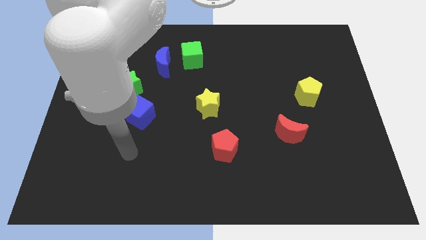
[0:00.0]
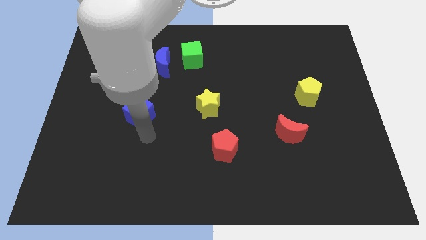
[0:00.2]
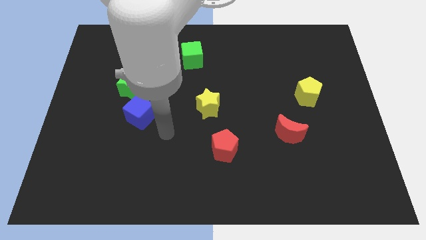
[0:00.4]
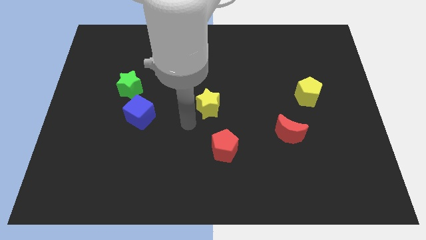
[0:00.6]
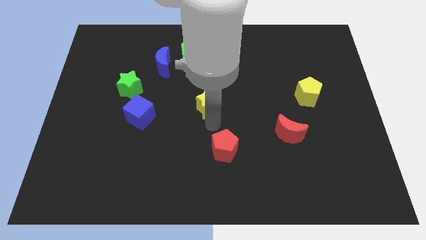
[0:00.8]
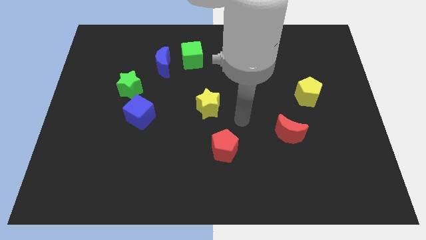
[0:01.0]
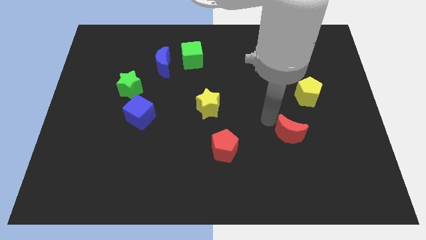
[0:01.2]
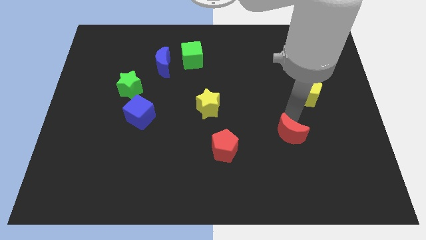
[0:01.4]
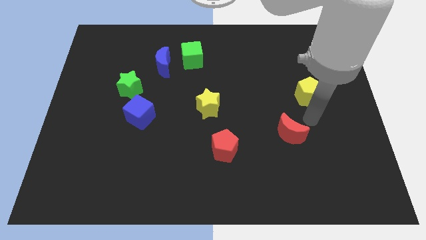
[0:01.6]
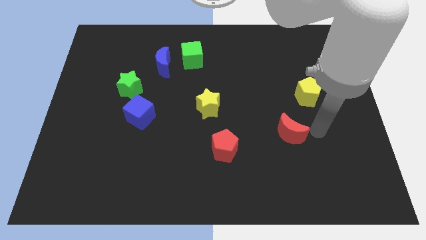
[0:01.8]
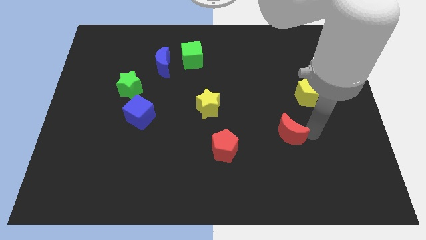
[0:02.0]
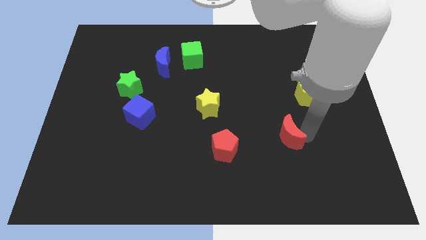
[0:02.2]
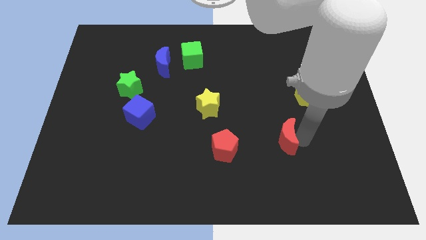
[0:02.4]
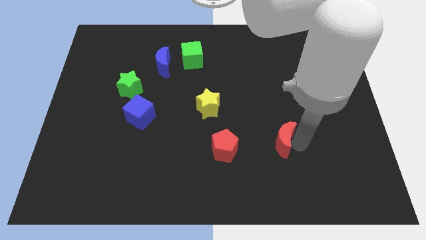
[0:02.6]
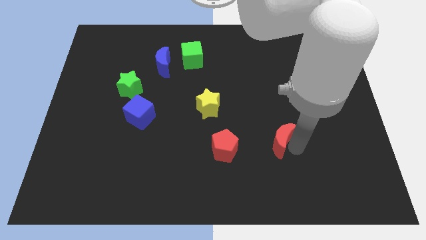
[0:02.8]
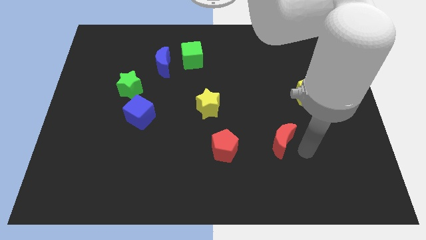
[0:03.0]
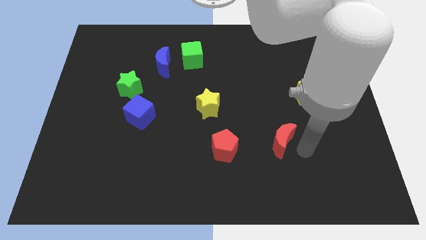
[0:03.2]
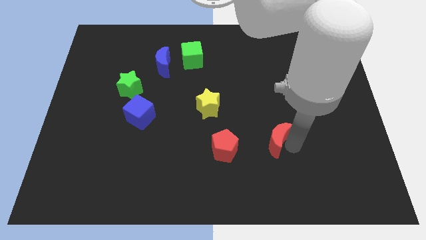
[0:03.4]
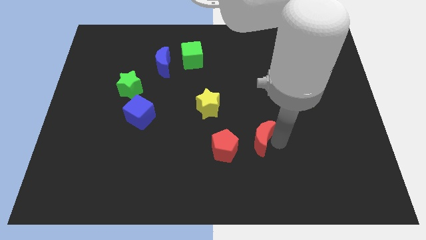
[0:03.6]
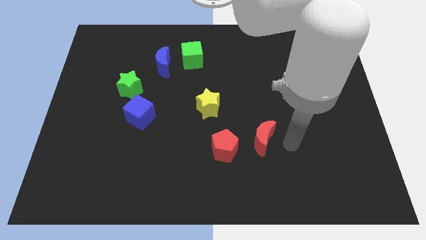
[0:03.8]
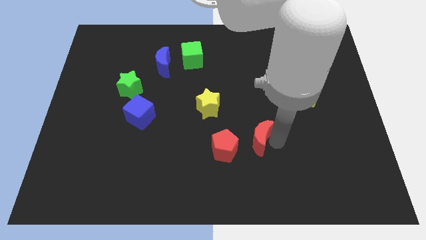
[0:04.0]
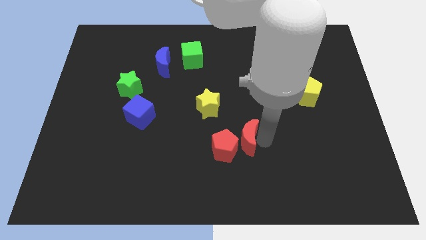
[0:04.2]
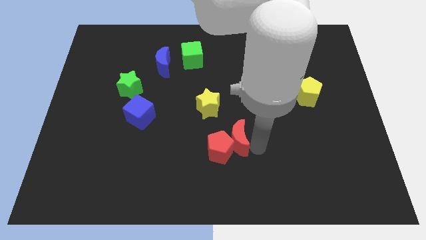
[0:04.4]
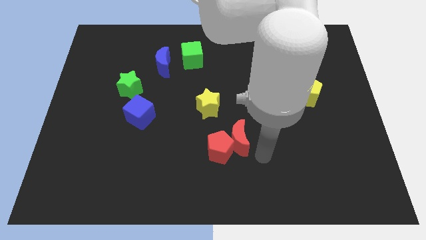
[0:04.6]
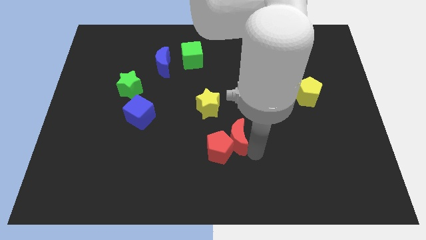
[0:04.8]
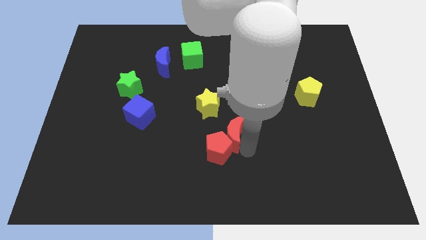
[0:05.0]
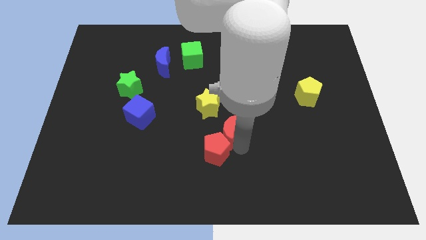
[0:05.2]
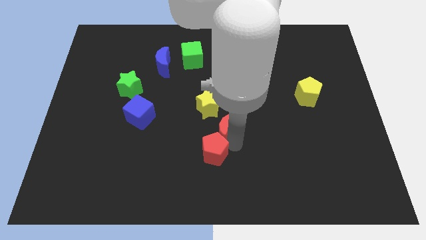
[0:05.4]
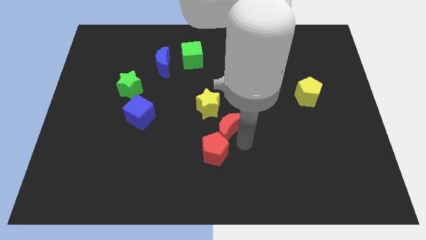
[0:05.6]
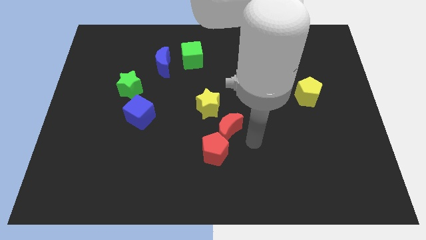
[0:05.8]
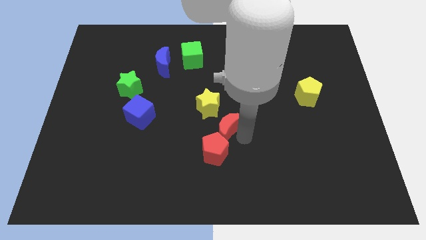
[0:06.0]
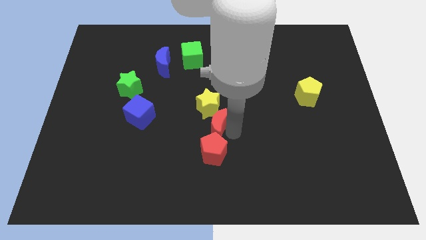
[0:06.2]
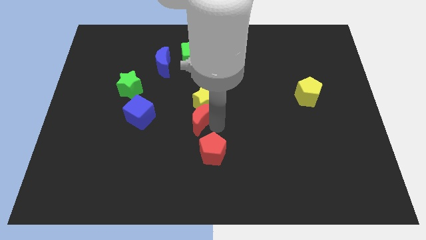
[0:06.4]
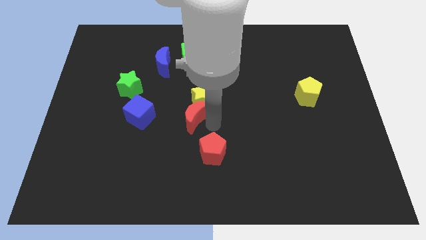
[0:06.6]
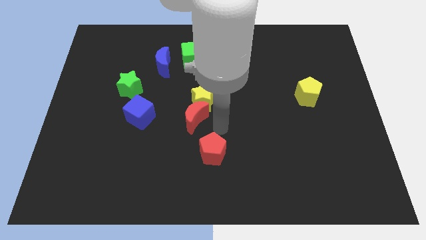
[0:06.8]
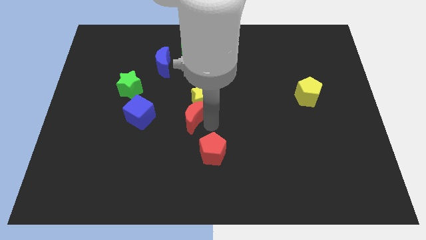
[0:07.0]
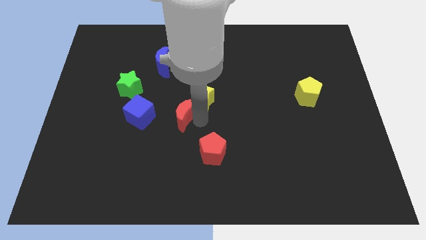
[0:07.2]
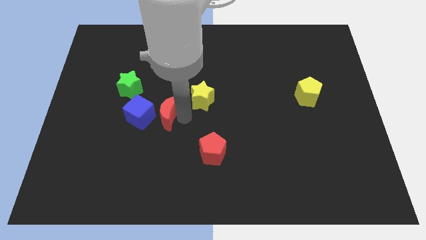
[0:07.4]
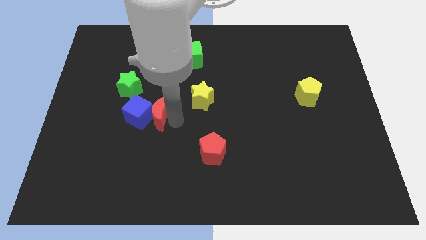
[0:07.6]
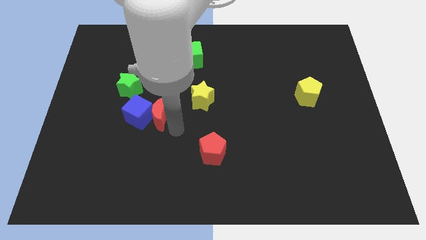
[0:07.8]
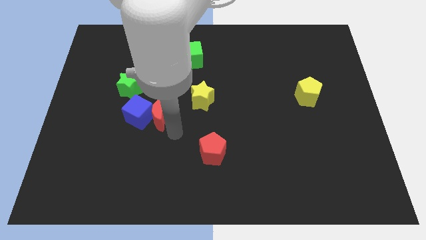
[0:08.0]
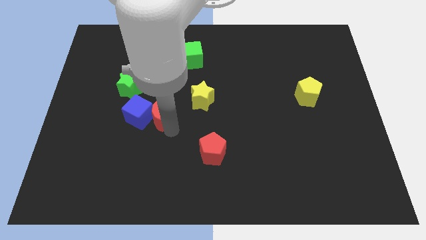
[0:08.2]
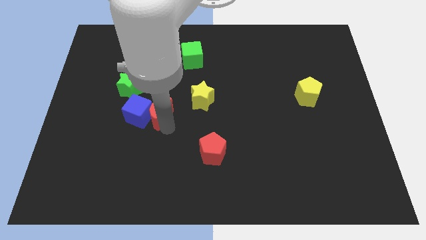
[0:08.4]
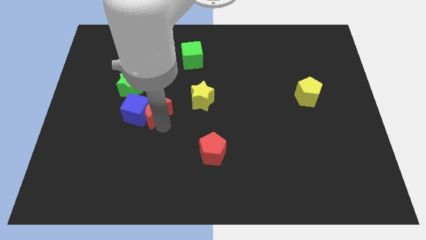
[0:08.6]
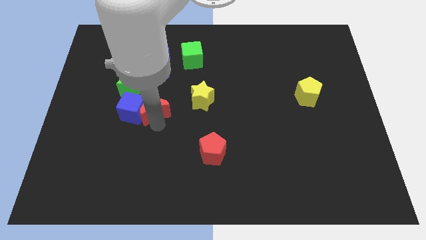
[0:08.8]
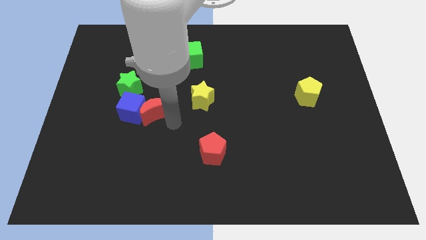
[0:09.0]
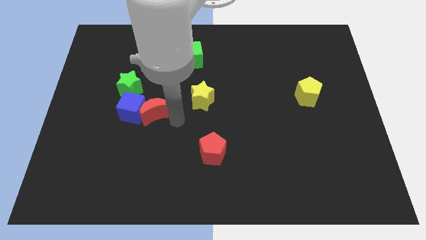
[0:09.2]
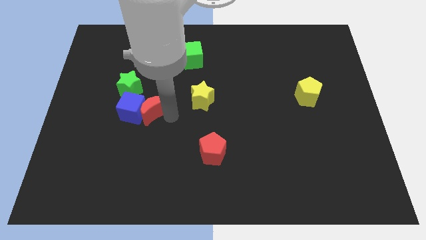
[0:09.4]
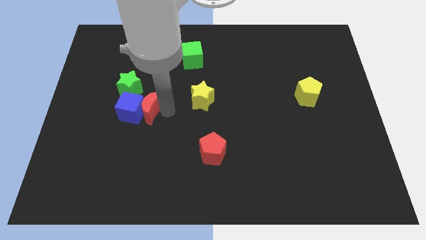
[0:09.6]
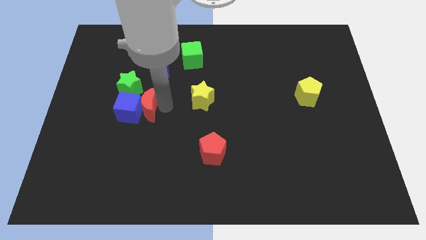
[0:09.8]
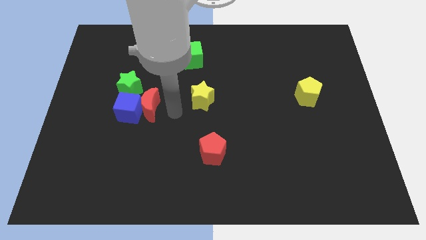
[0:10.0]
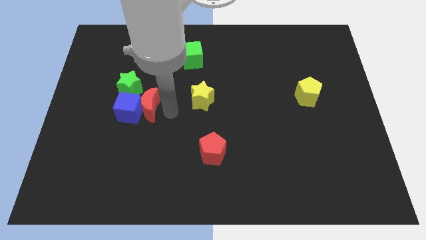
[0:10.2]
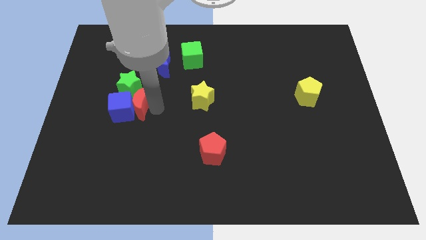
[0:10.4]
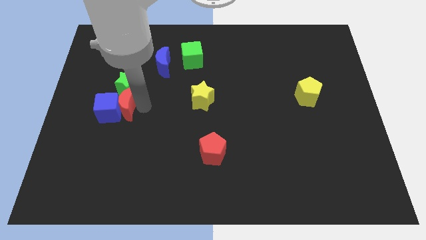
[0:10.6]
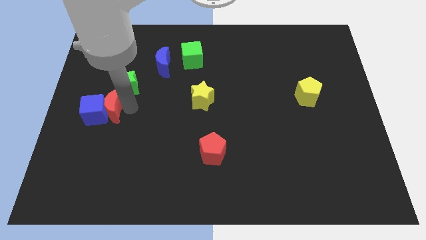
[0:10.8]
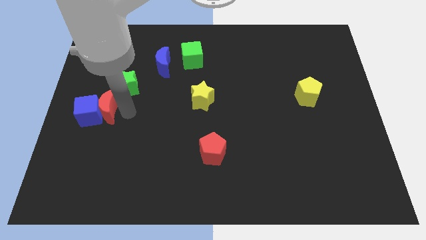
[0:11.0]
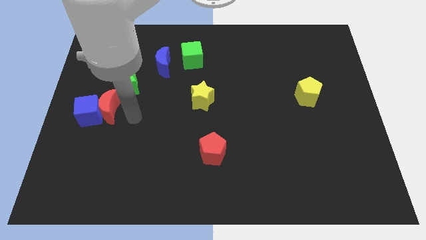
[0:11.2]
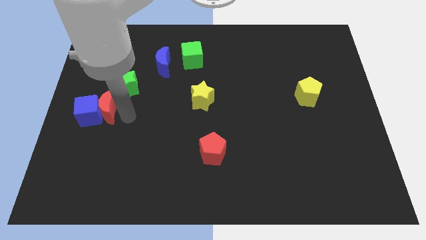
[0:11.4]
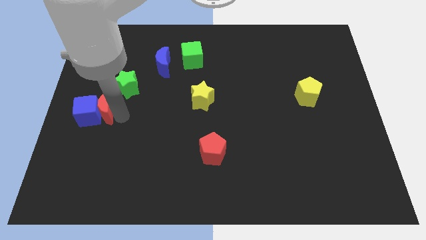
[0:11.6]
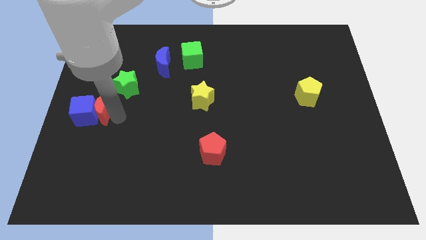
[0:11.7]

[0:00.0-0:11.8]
move the red moon to the left side of the board
